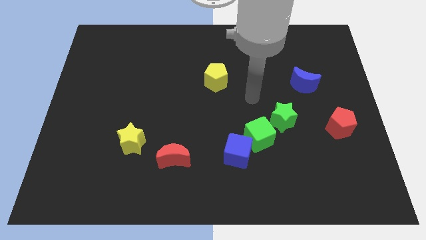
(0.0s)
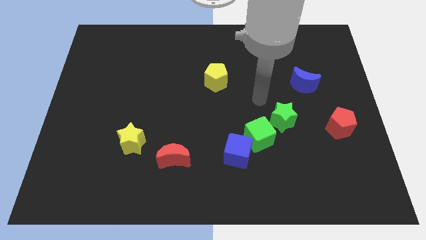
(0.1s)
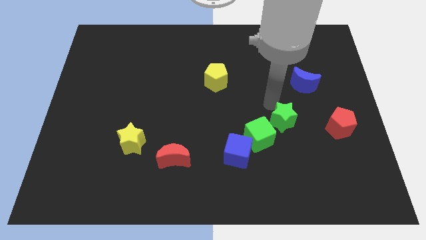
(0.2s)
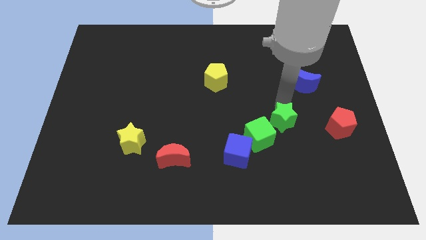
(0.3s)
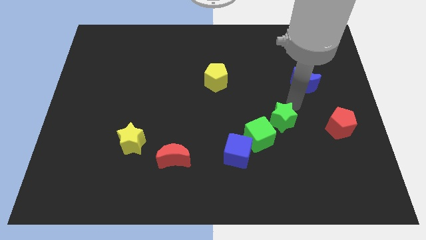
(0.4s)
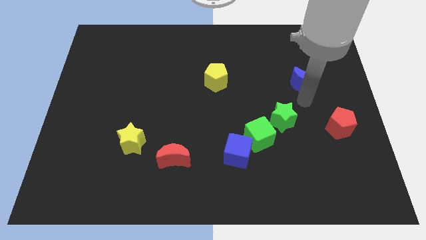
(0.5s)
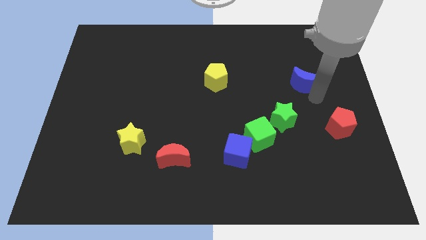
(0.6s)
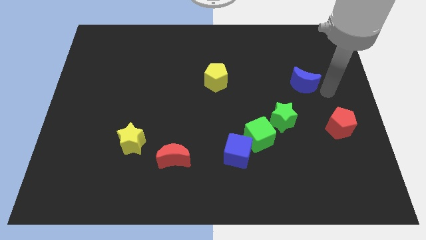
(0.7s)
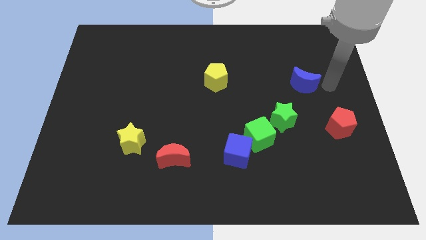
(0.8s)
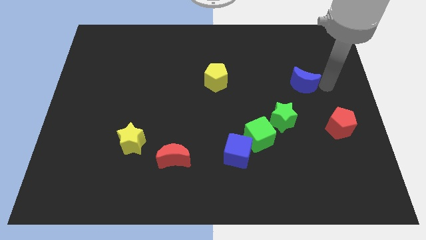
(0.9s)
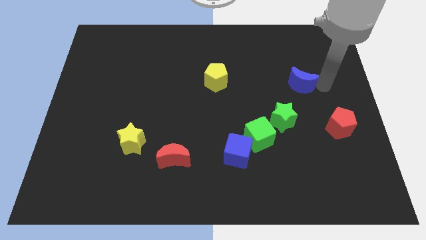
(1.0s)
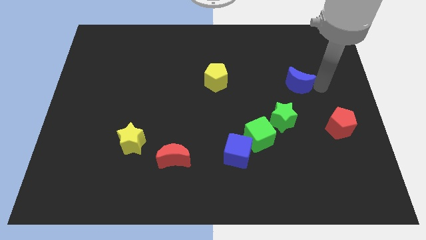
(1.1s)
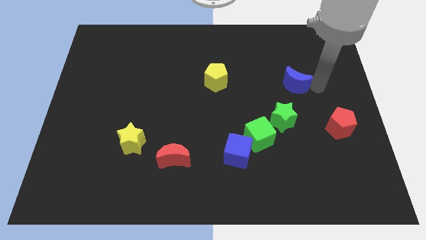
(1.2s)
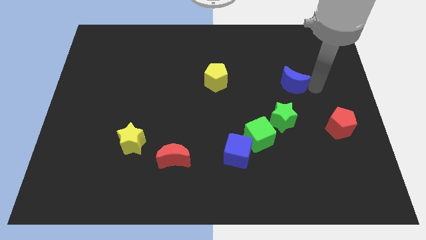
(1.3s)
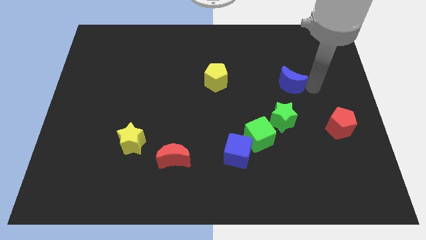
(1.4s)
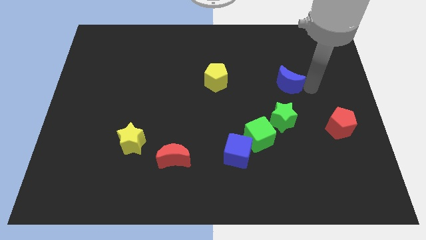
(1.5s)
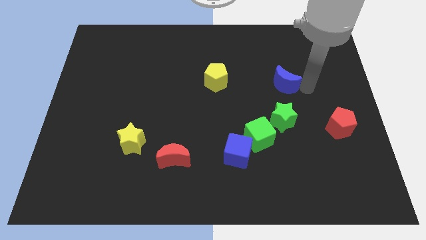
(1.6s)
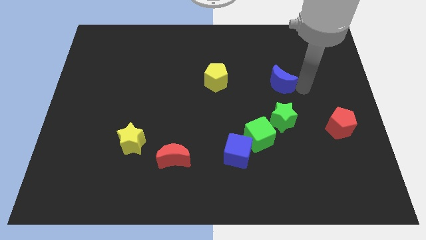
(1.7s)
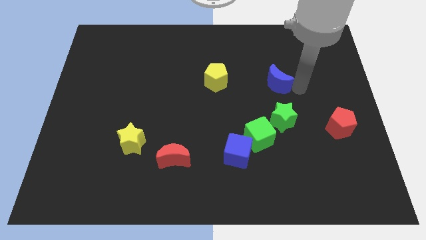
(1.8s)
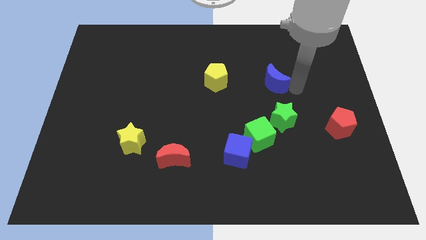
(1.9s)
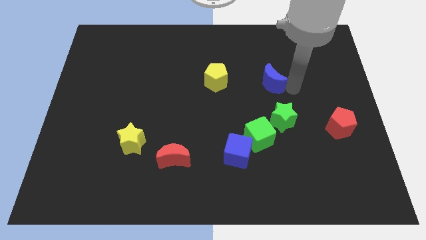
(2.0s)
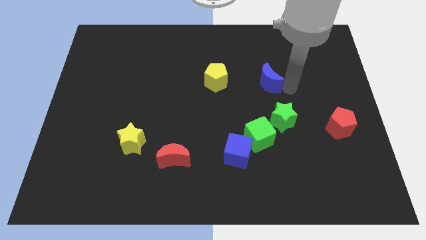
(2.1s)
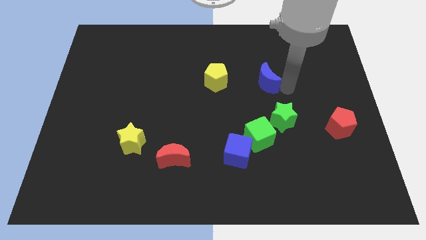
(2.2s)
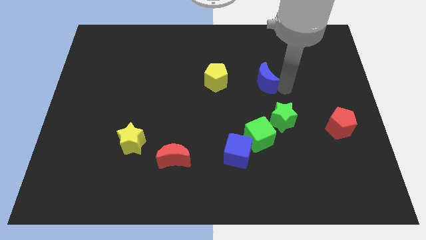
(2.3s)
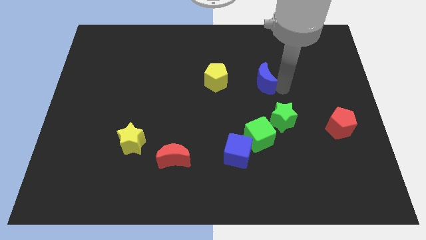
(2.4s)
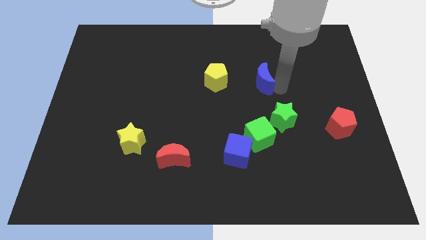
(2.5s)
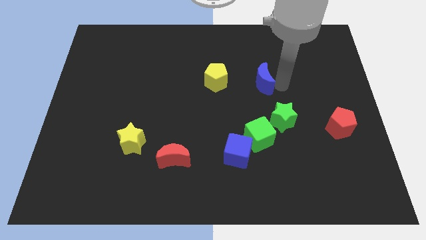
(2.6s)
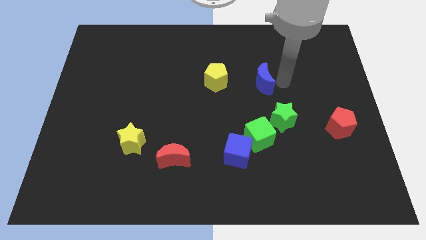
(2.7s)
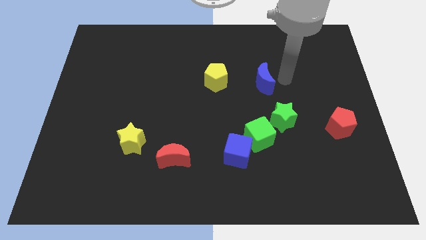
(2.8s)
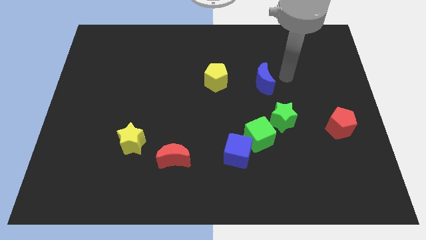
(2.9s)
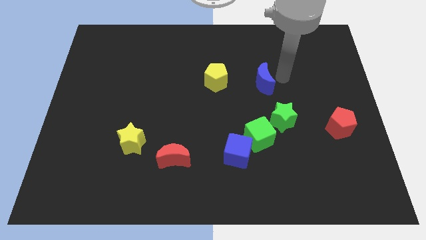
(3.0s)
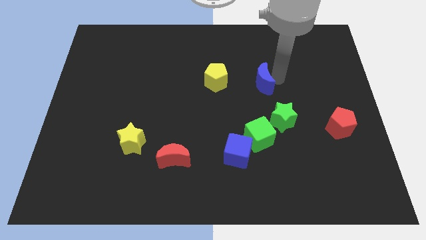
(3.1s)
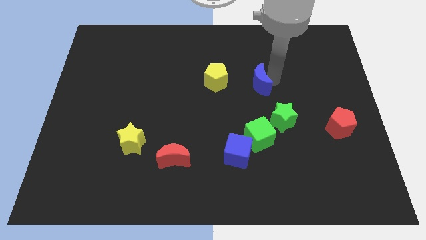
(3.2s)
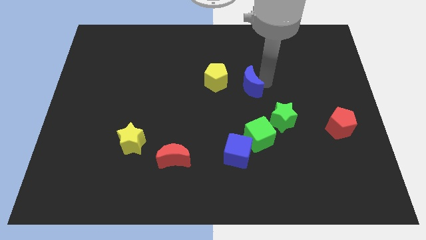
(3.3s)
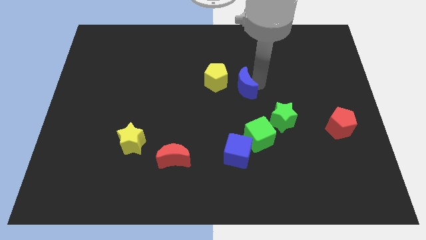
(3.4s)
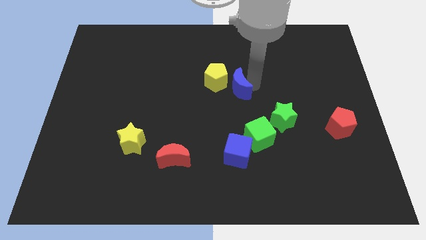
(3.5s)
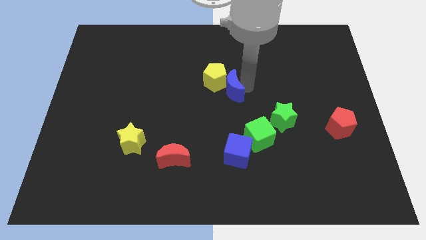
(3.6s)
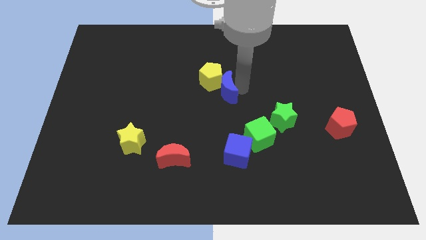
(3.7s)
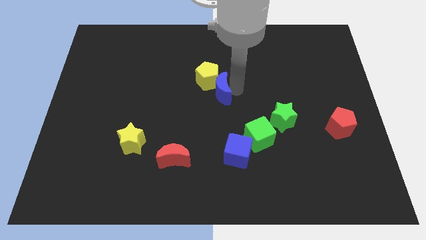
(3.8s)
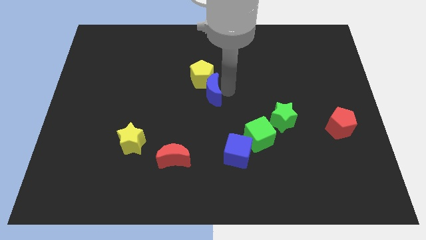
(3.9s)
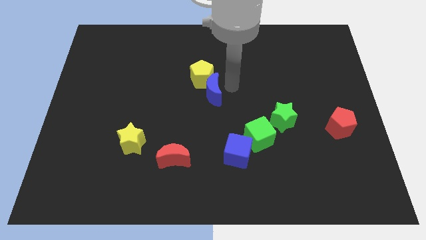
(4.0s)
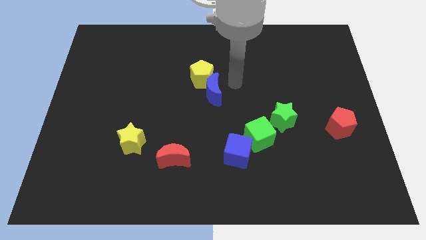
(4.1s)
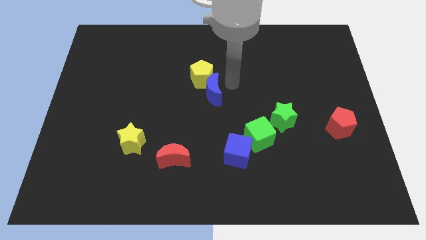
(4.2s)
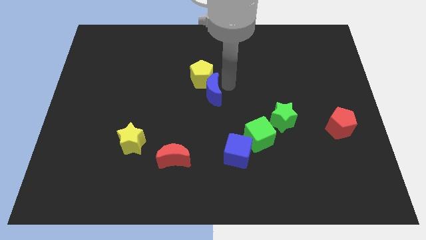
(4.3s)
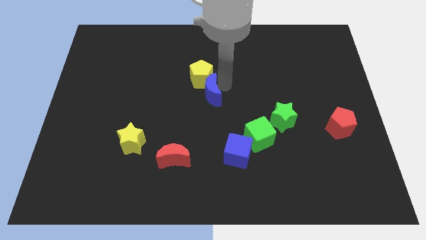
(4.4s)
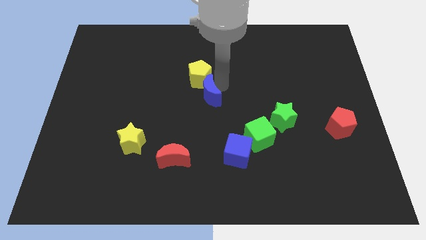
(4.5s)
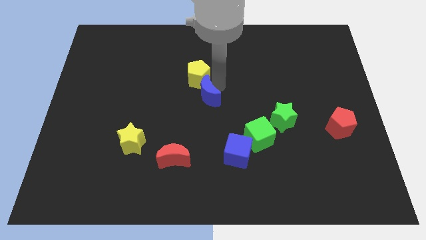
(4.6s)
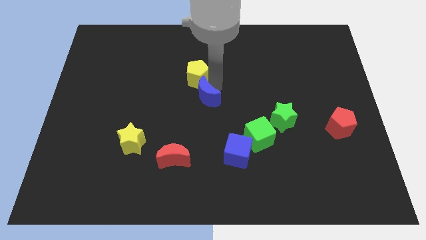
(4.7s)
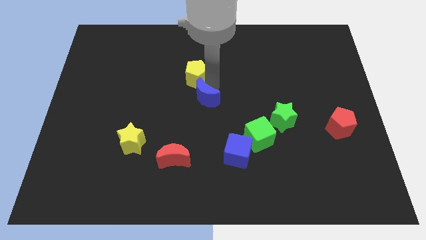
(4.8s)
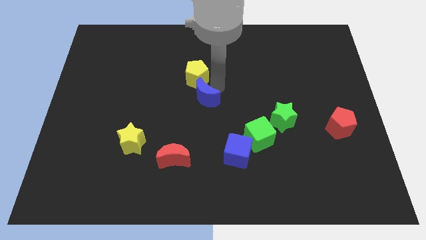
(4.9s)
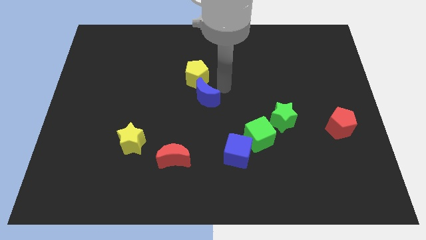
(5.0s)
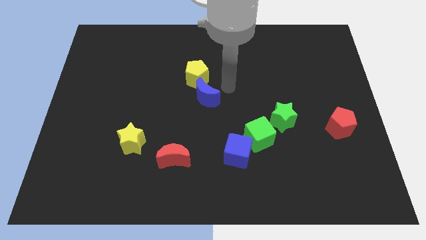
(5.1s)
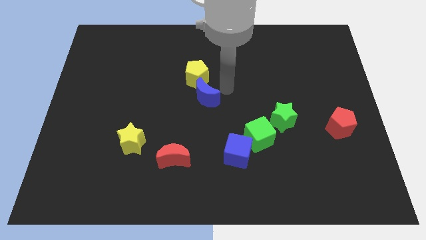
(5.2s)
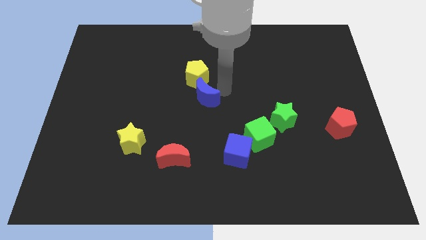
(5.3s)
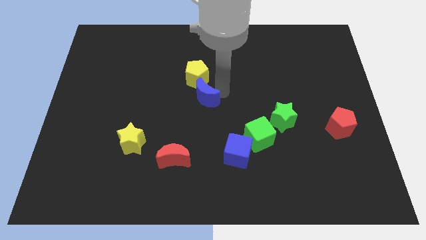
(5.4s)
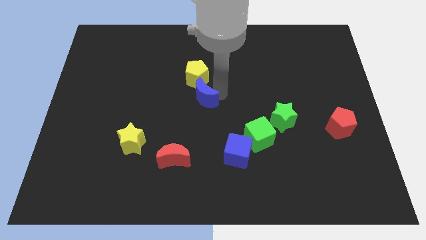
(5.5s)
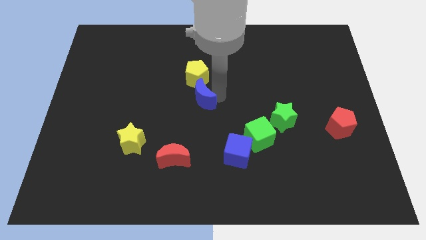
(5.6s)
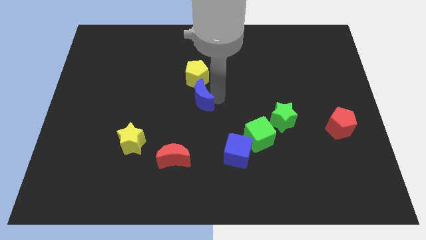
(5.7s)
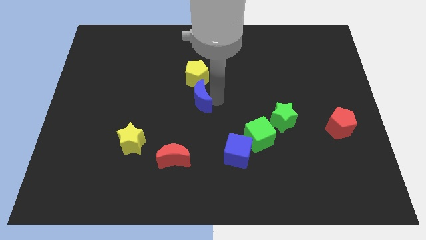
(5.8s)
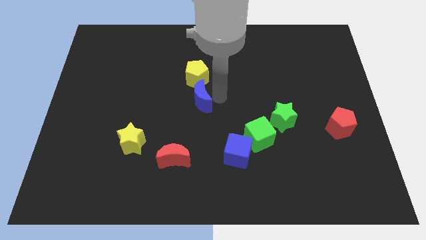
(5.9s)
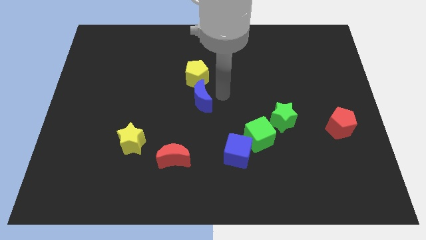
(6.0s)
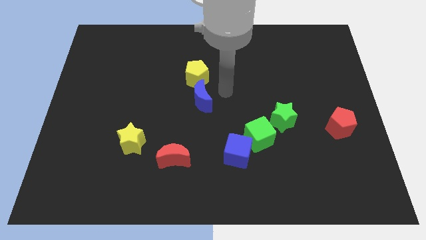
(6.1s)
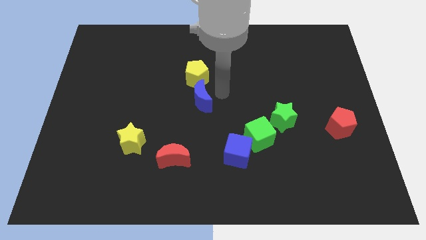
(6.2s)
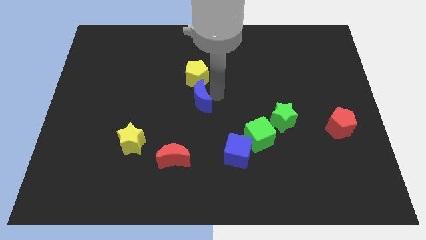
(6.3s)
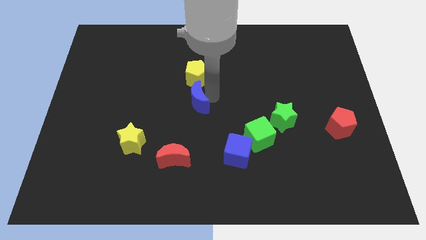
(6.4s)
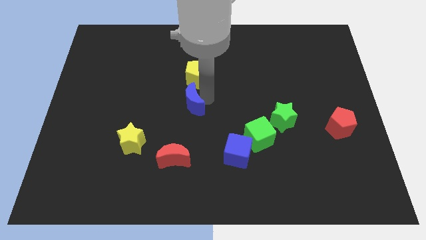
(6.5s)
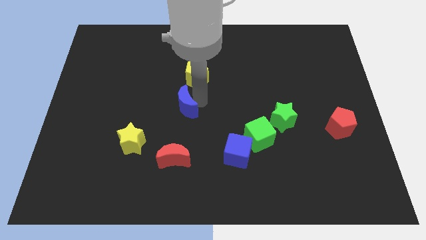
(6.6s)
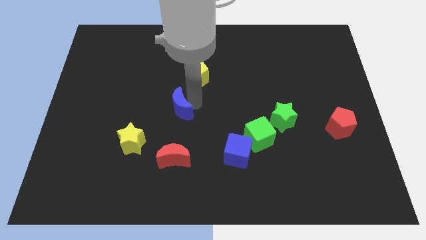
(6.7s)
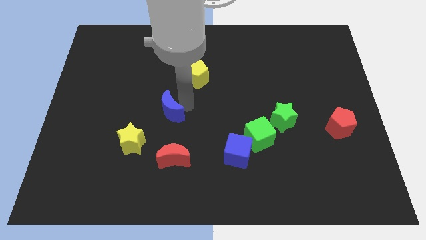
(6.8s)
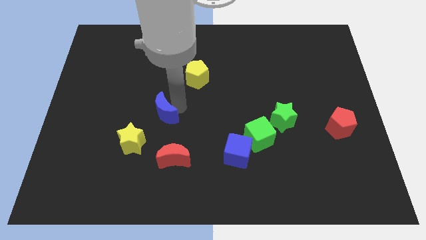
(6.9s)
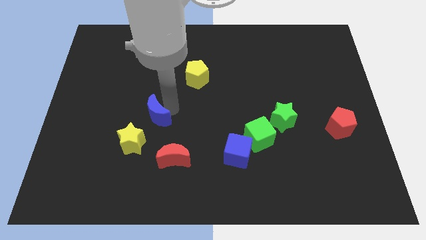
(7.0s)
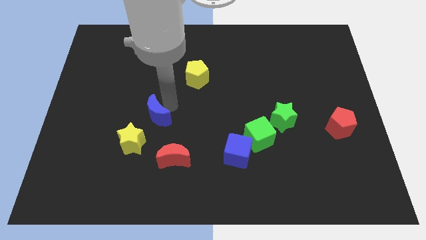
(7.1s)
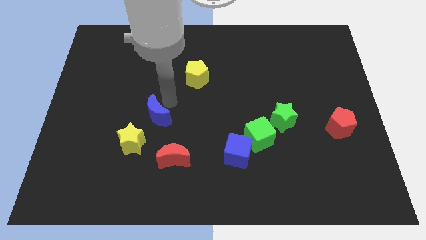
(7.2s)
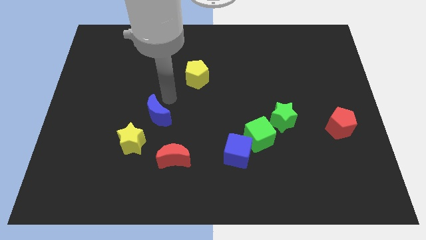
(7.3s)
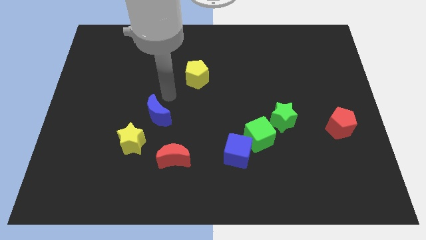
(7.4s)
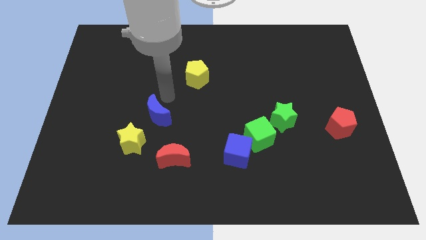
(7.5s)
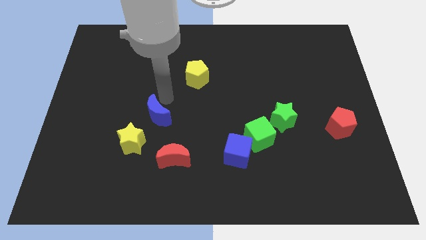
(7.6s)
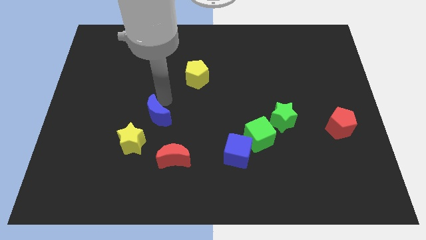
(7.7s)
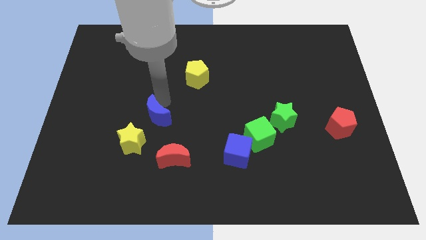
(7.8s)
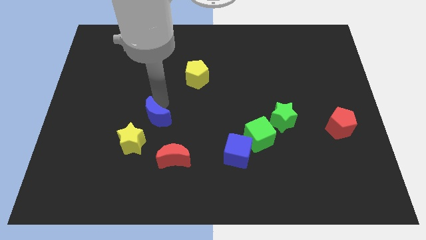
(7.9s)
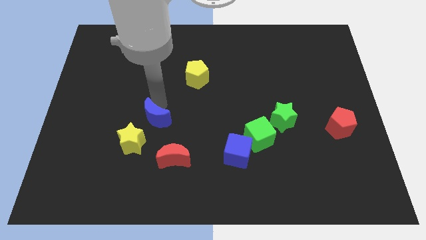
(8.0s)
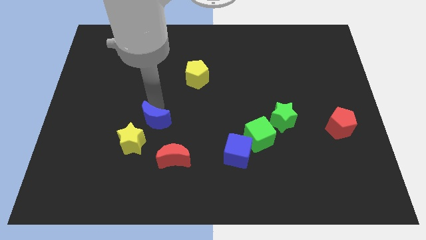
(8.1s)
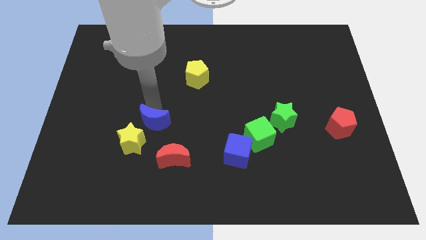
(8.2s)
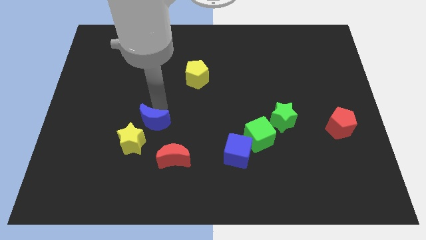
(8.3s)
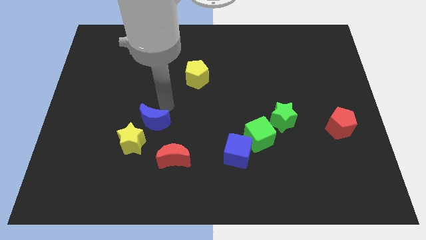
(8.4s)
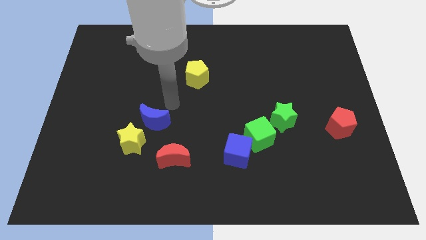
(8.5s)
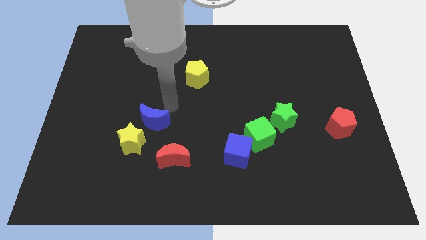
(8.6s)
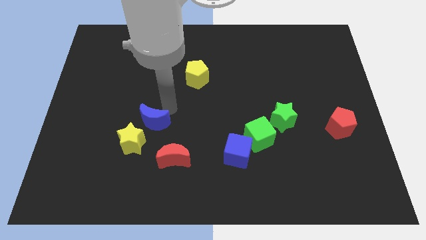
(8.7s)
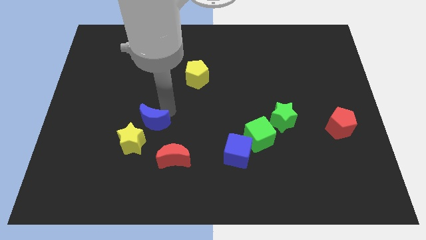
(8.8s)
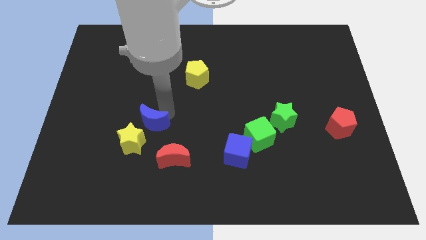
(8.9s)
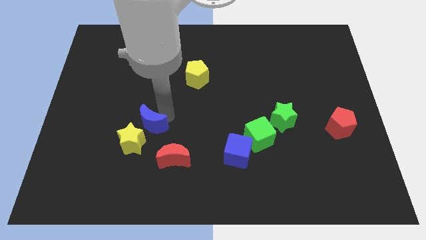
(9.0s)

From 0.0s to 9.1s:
put the blue moon close to the yellow star
